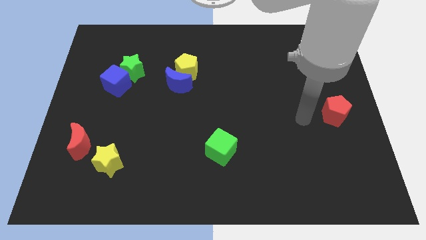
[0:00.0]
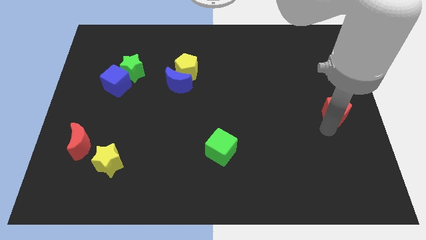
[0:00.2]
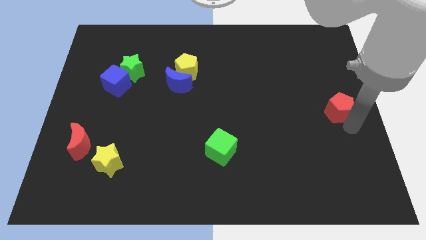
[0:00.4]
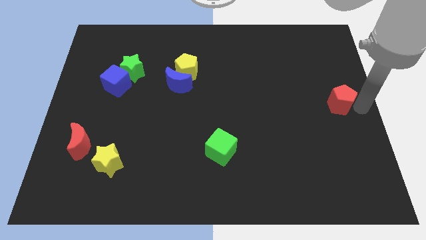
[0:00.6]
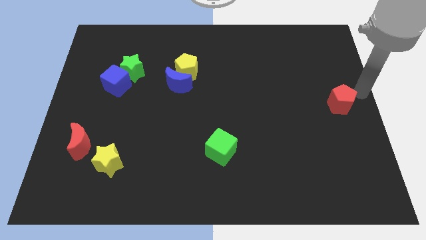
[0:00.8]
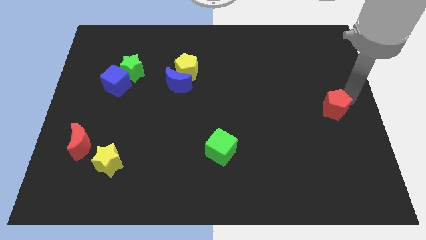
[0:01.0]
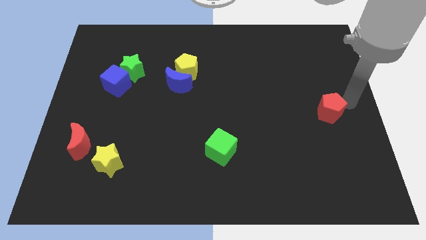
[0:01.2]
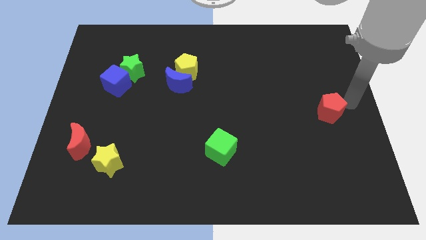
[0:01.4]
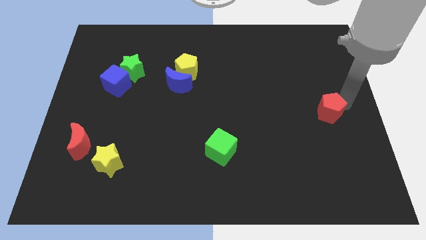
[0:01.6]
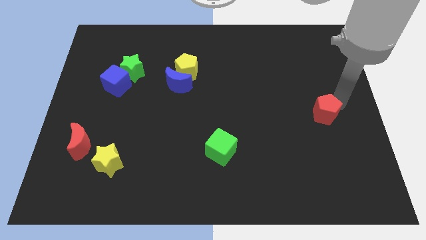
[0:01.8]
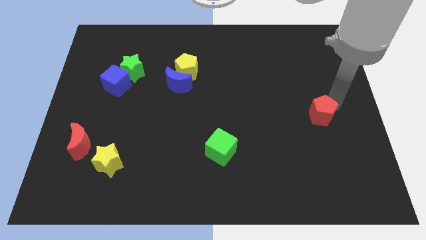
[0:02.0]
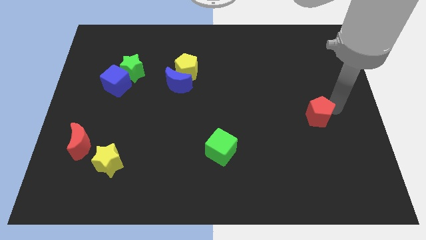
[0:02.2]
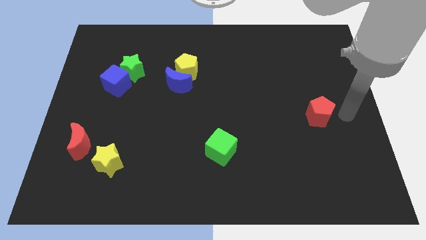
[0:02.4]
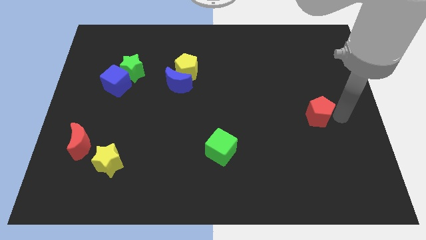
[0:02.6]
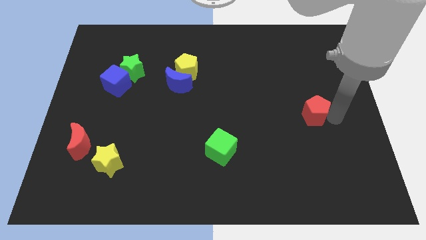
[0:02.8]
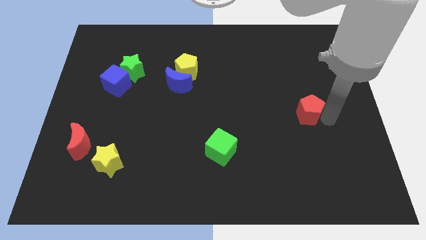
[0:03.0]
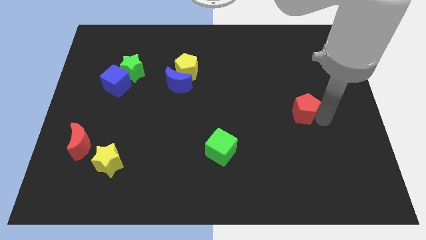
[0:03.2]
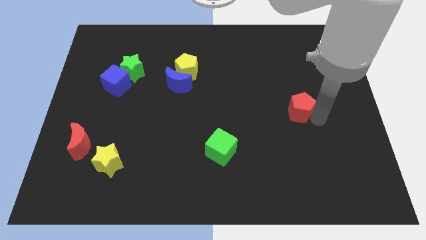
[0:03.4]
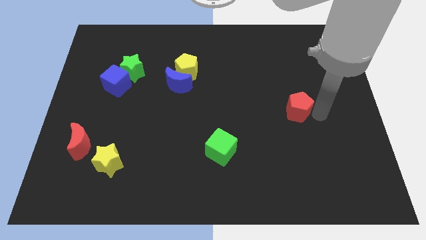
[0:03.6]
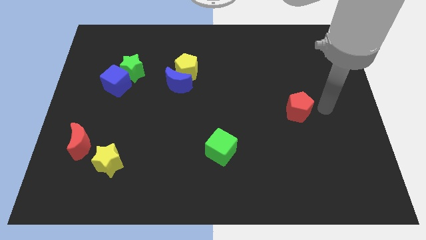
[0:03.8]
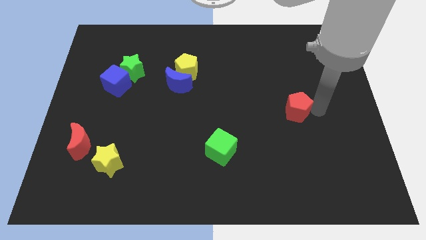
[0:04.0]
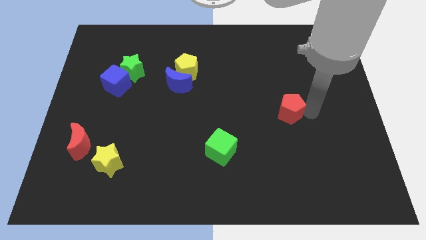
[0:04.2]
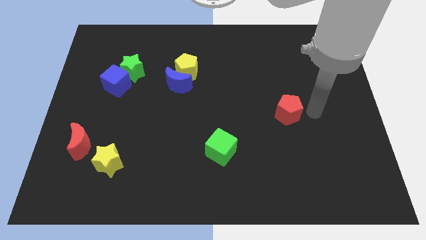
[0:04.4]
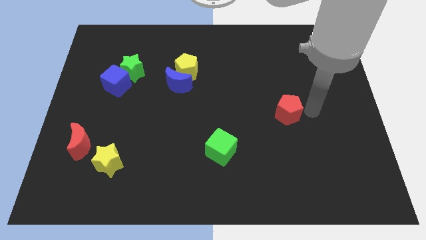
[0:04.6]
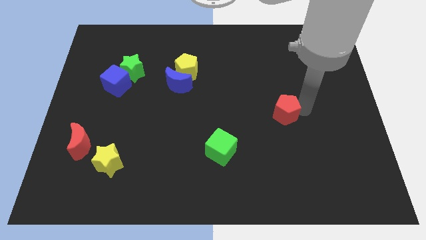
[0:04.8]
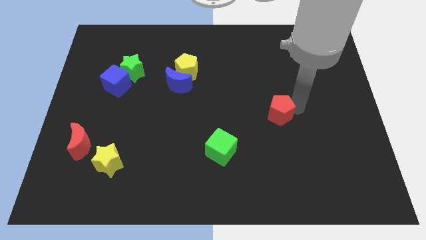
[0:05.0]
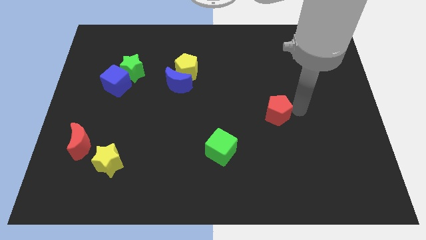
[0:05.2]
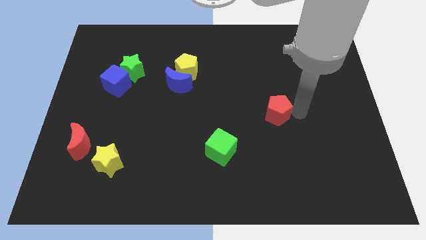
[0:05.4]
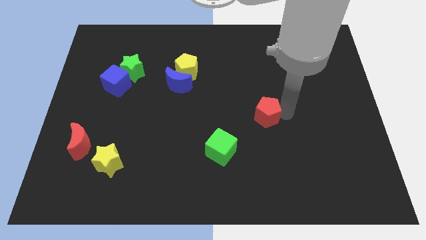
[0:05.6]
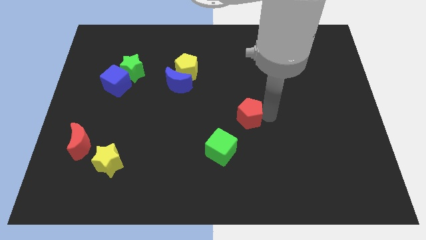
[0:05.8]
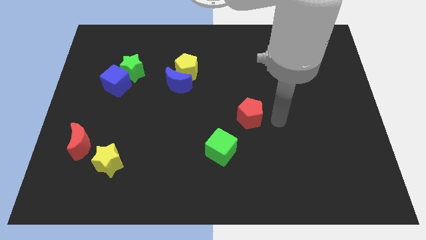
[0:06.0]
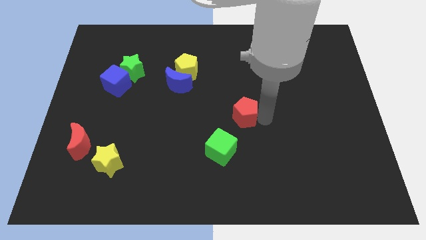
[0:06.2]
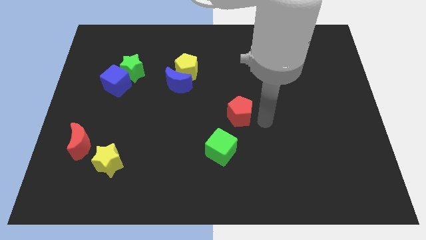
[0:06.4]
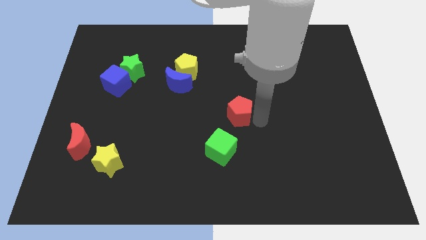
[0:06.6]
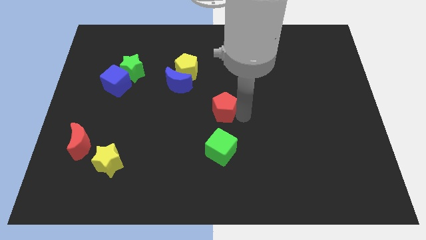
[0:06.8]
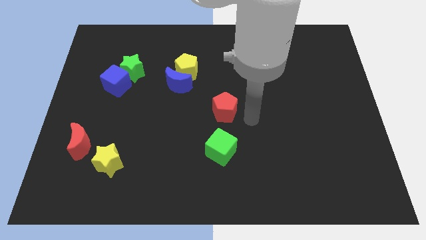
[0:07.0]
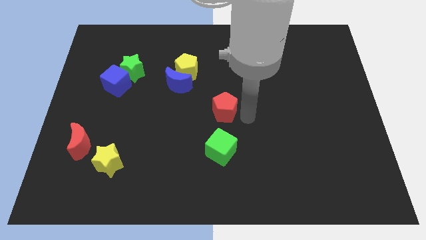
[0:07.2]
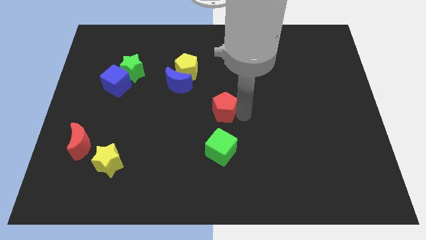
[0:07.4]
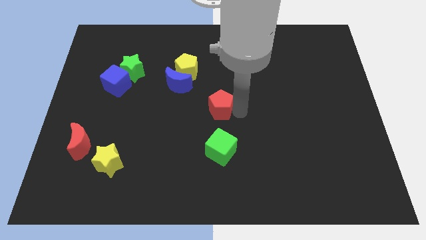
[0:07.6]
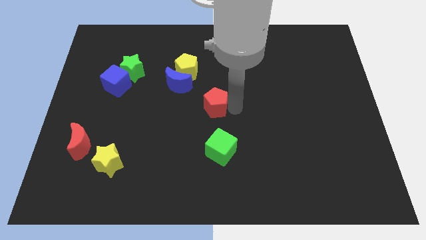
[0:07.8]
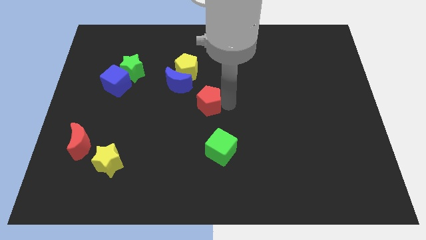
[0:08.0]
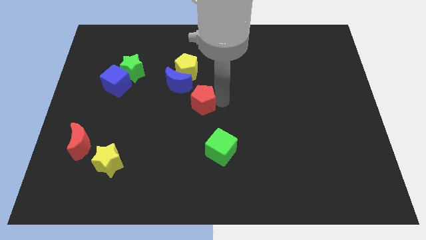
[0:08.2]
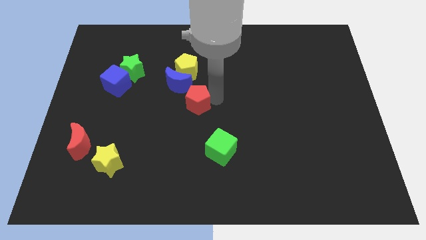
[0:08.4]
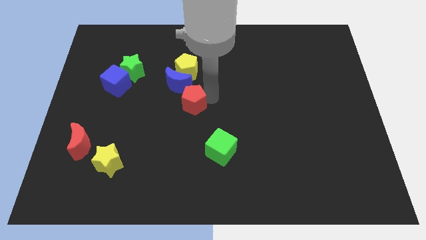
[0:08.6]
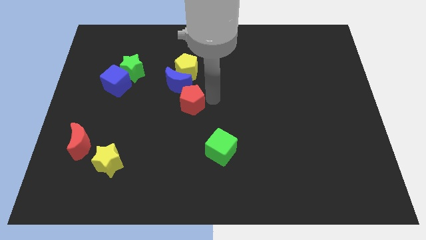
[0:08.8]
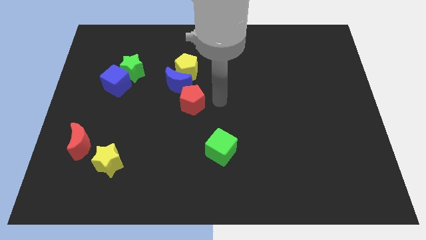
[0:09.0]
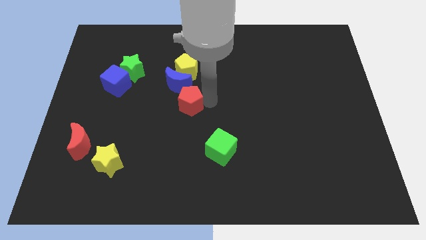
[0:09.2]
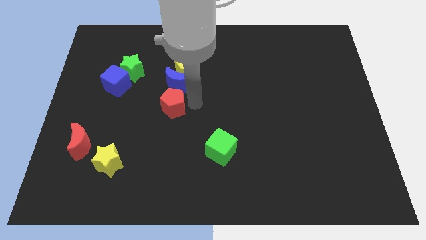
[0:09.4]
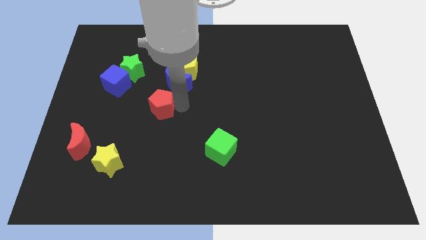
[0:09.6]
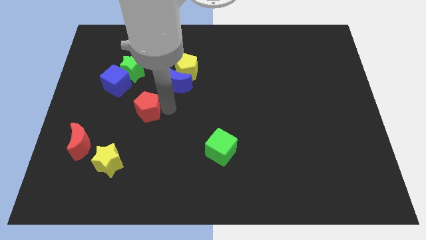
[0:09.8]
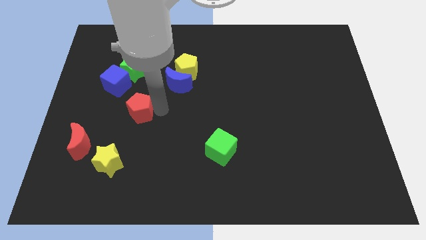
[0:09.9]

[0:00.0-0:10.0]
slide the red pentagon below the green star

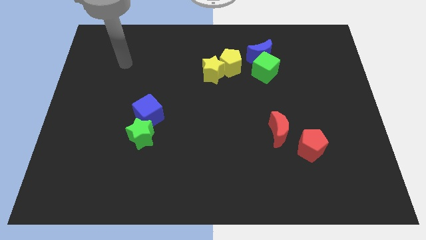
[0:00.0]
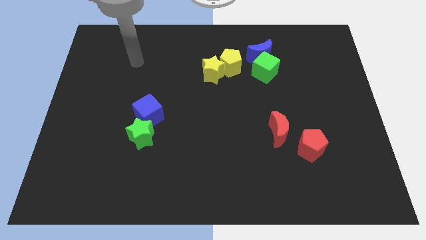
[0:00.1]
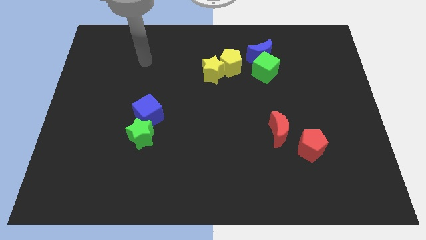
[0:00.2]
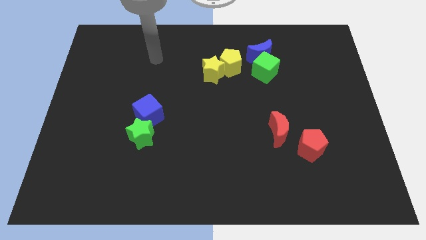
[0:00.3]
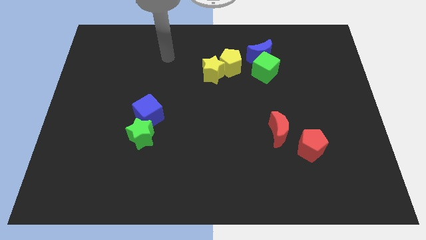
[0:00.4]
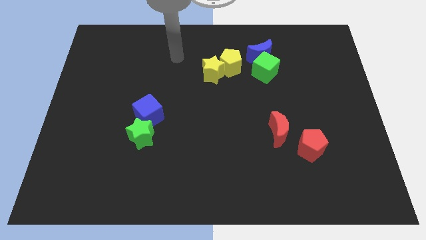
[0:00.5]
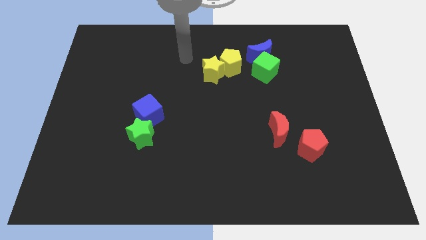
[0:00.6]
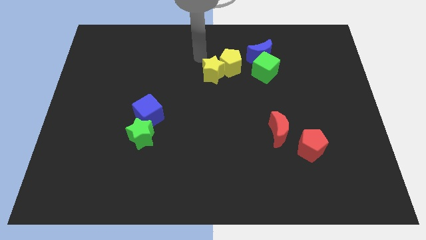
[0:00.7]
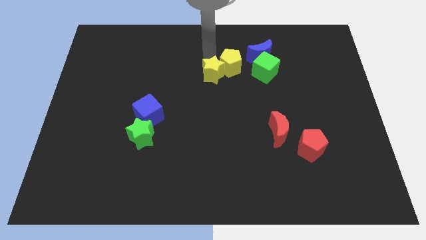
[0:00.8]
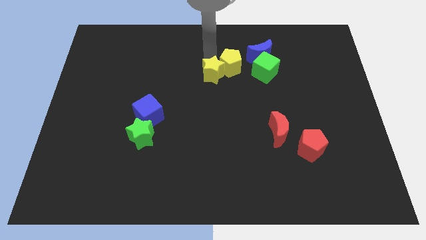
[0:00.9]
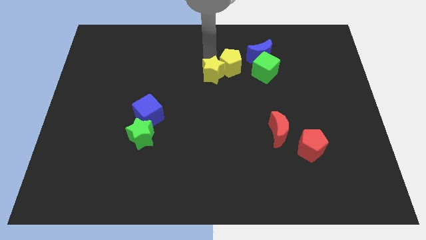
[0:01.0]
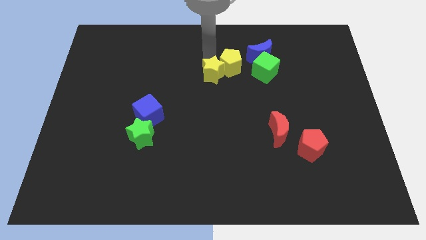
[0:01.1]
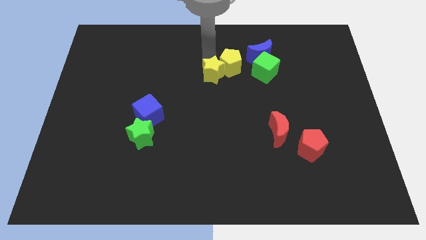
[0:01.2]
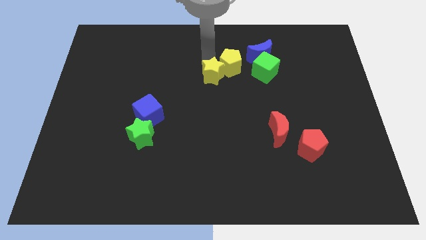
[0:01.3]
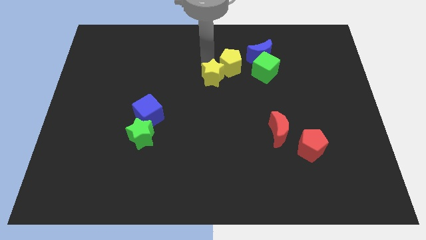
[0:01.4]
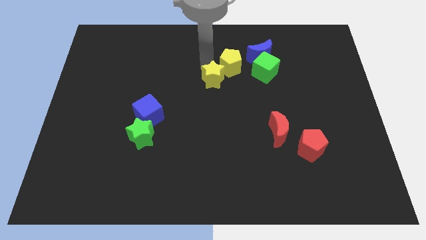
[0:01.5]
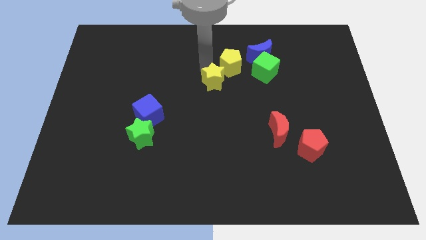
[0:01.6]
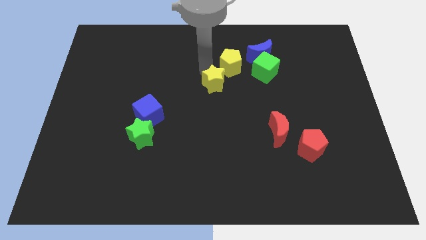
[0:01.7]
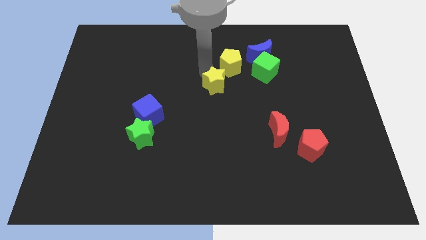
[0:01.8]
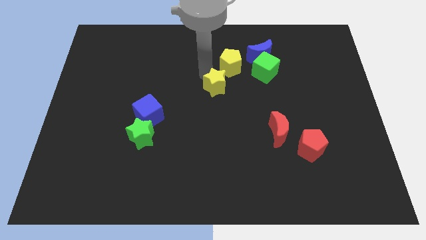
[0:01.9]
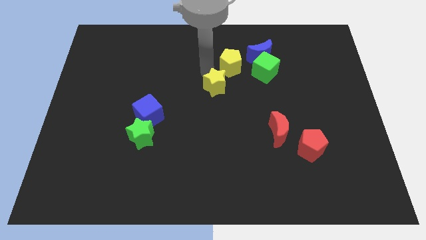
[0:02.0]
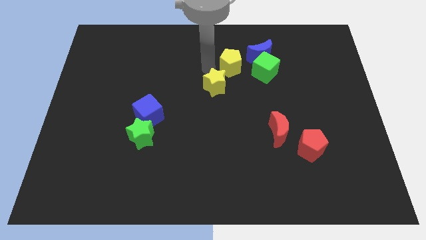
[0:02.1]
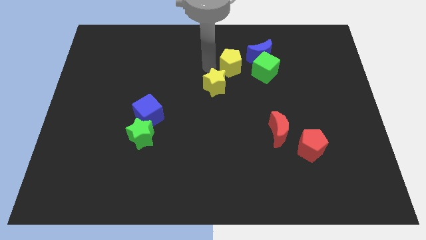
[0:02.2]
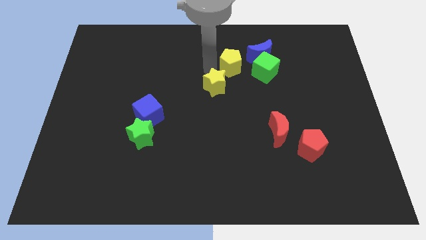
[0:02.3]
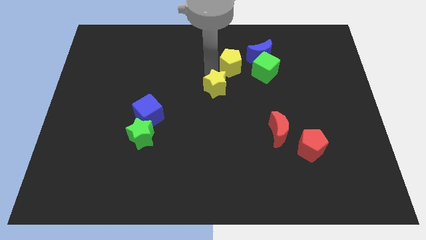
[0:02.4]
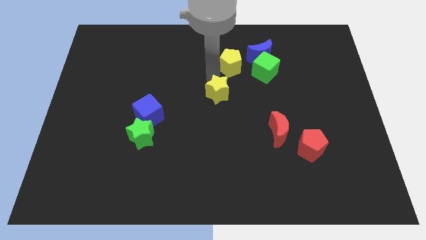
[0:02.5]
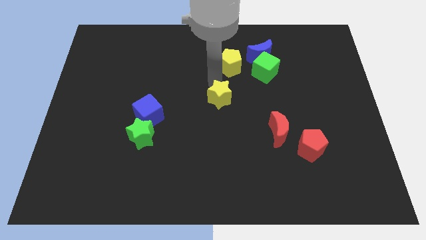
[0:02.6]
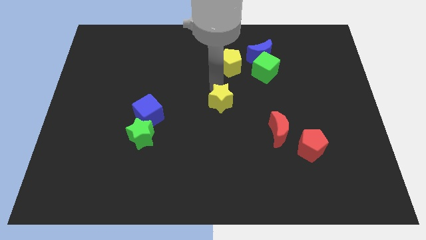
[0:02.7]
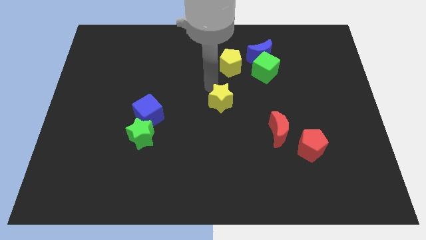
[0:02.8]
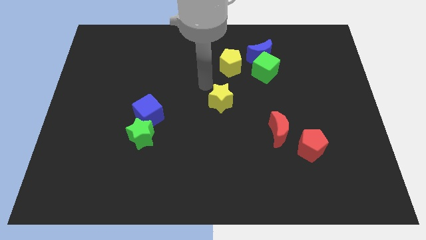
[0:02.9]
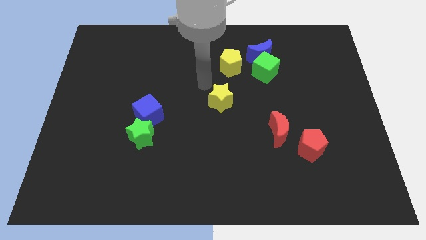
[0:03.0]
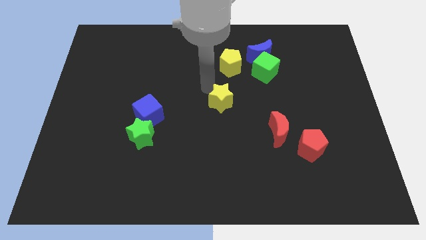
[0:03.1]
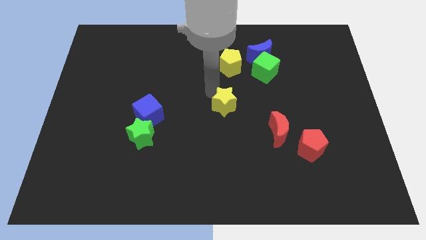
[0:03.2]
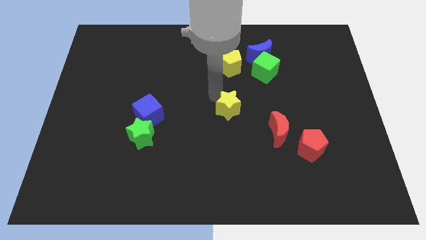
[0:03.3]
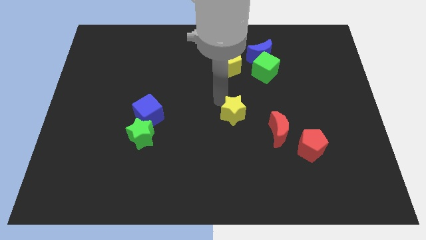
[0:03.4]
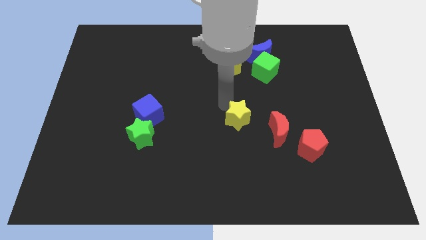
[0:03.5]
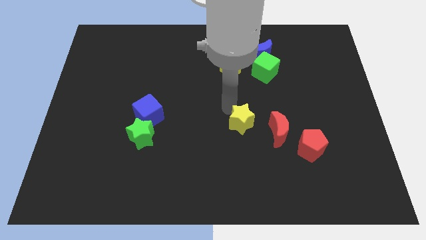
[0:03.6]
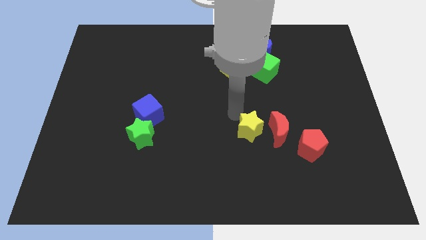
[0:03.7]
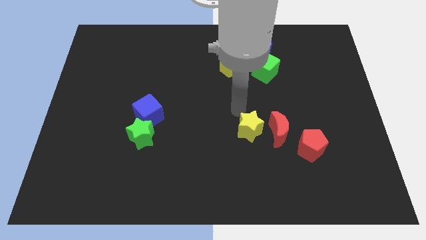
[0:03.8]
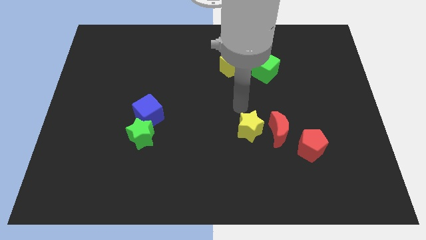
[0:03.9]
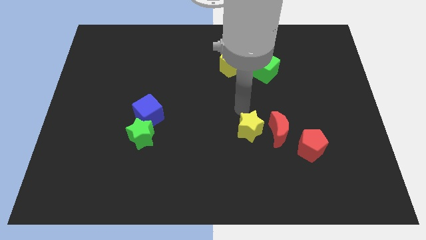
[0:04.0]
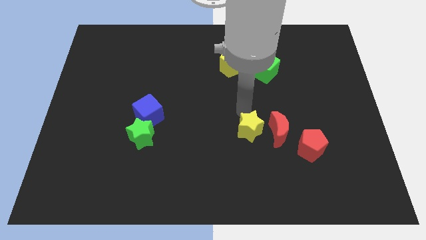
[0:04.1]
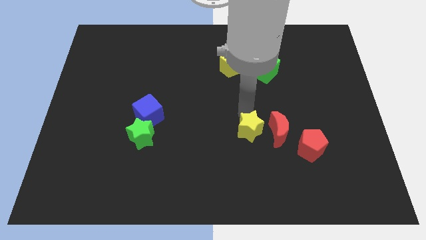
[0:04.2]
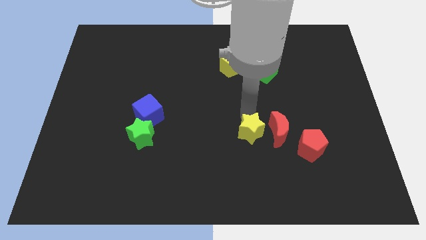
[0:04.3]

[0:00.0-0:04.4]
move the yellow star diagonally down and to the left of the red moon
